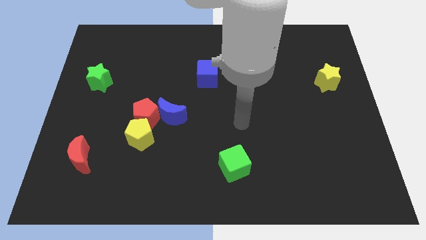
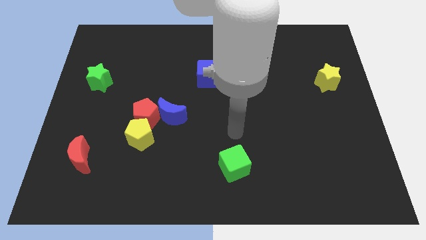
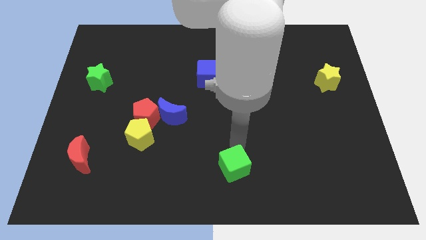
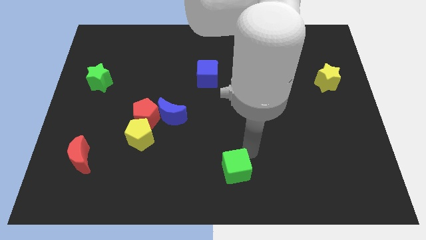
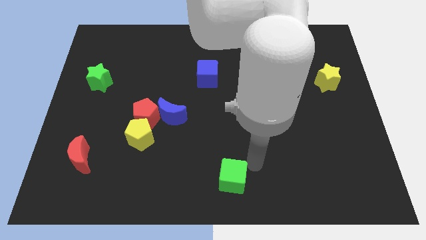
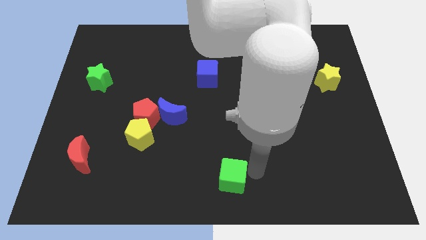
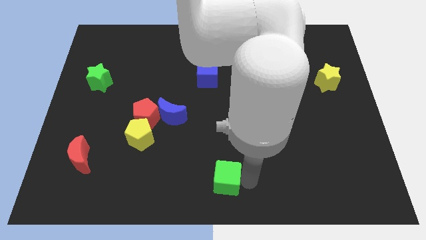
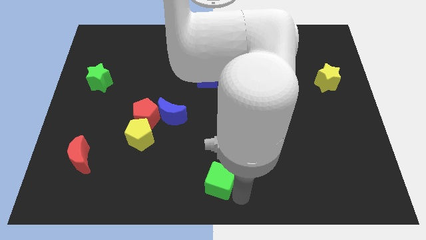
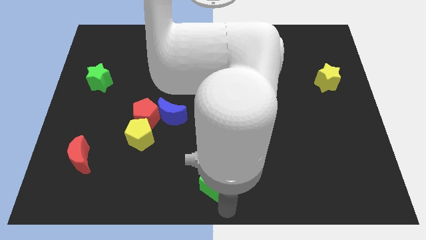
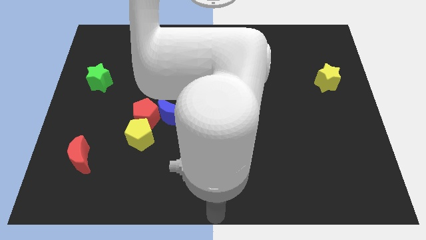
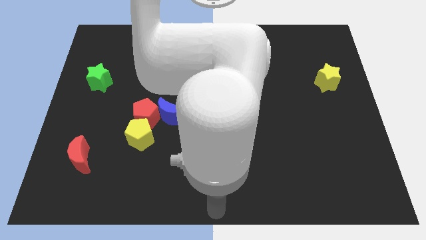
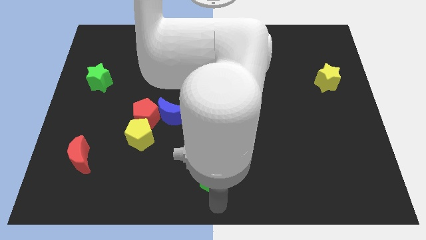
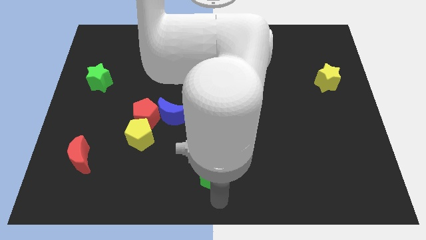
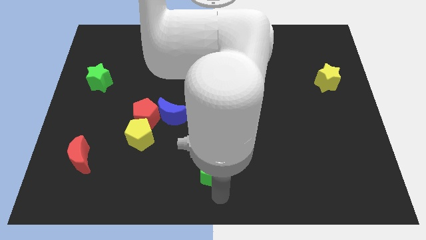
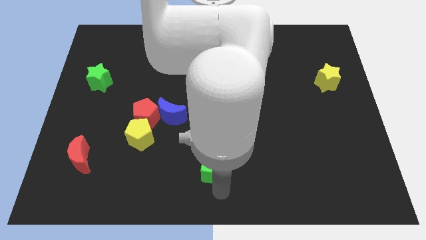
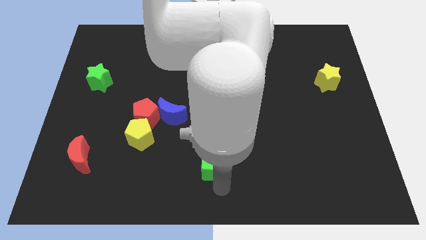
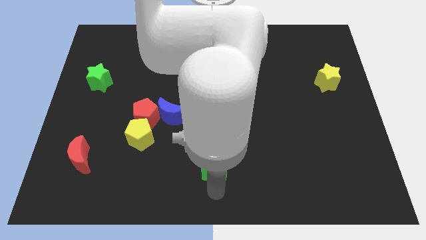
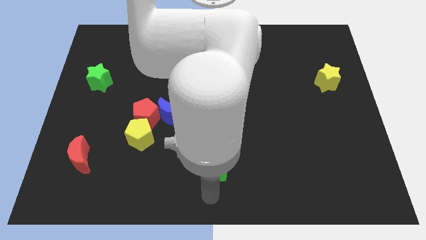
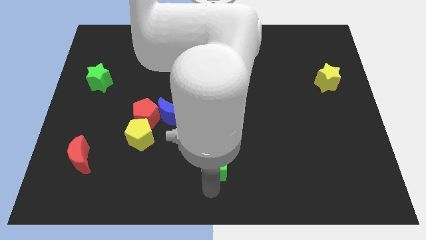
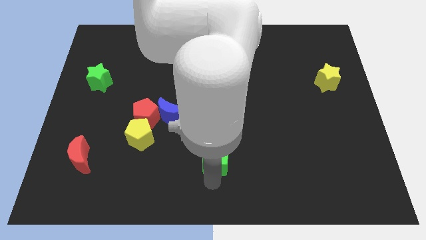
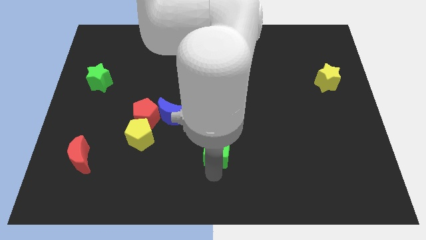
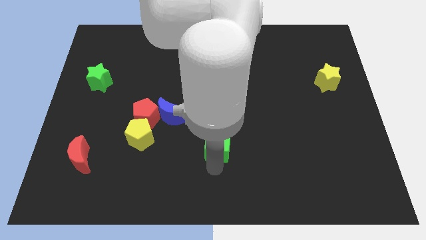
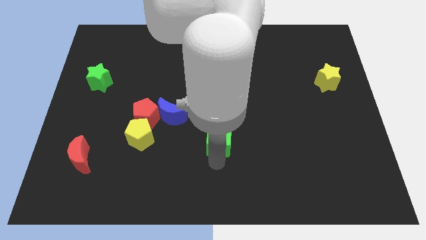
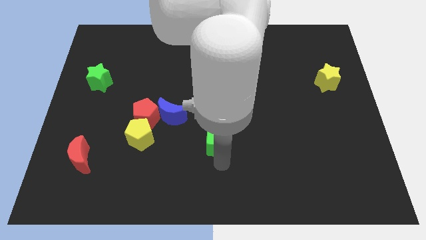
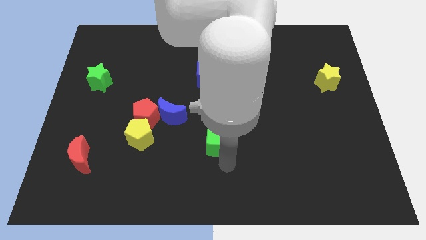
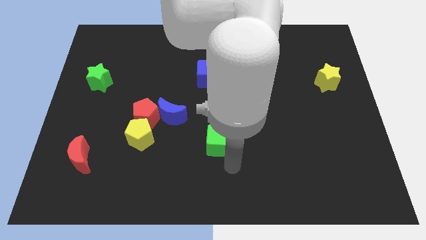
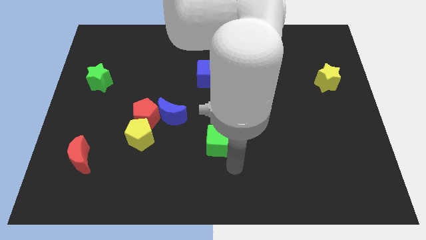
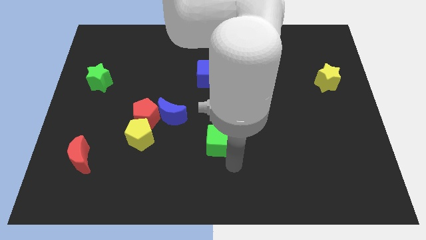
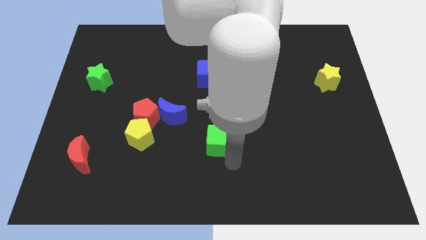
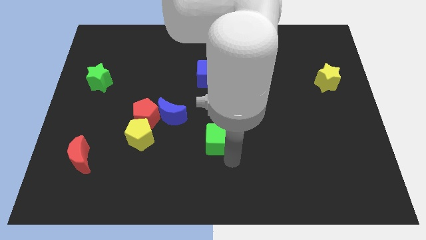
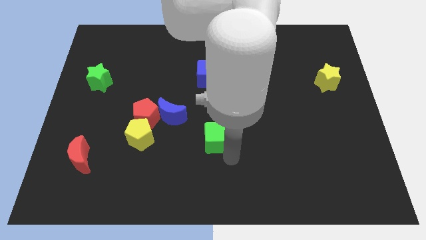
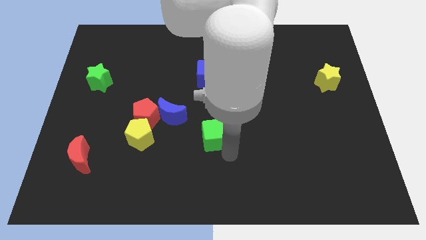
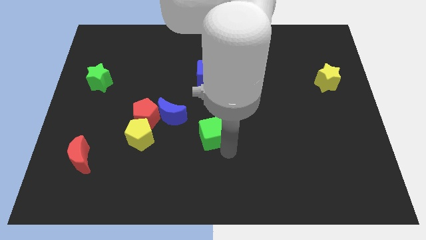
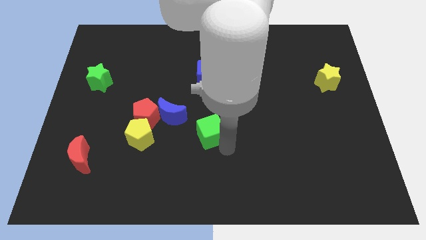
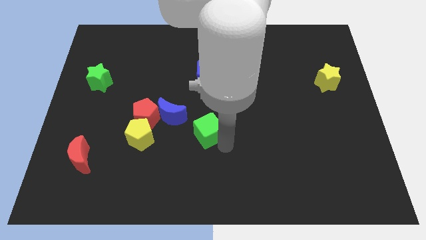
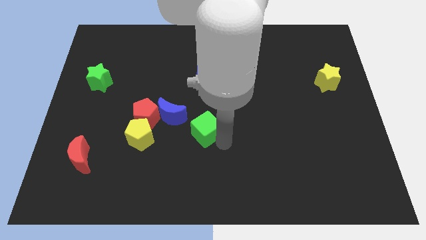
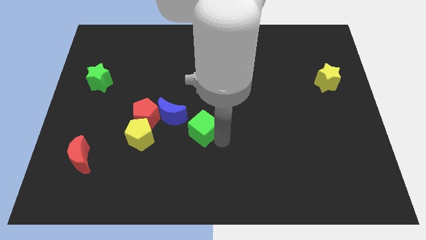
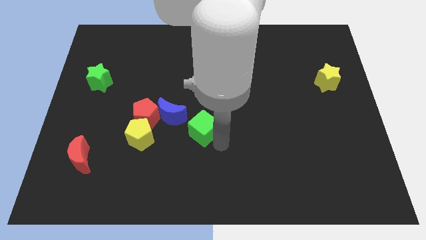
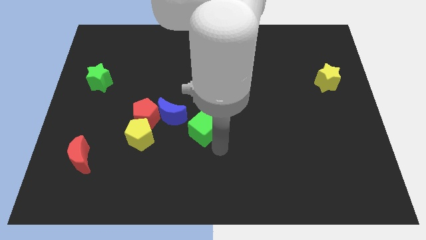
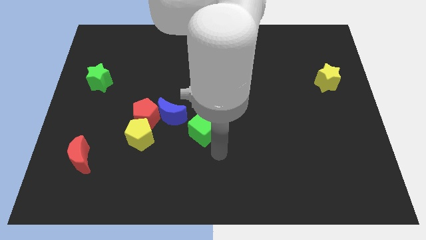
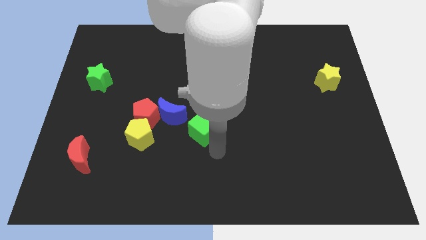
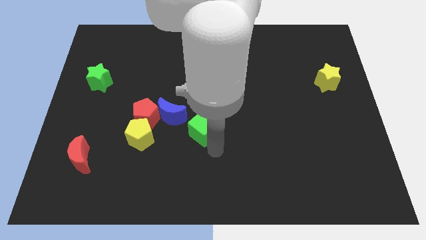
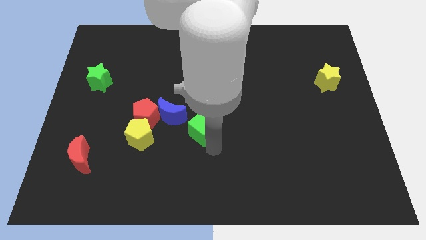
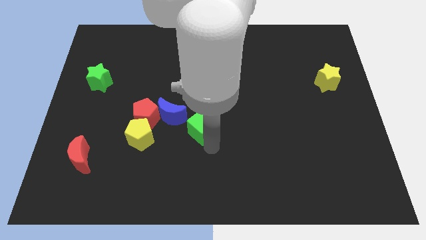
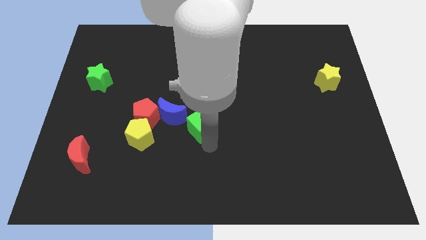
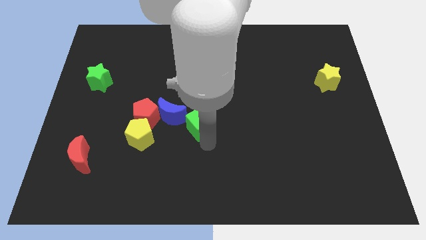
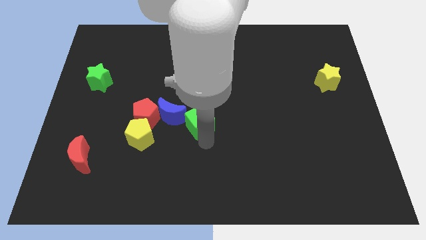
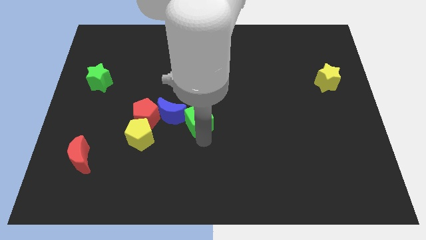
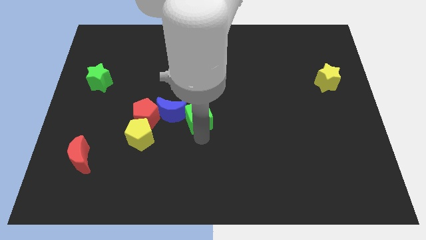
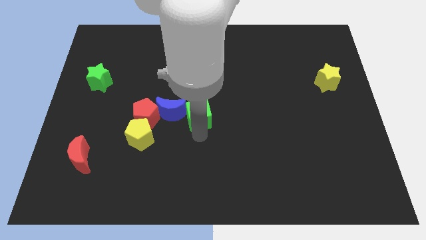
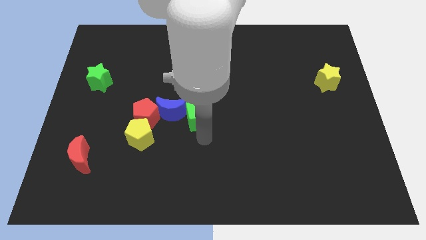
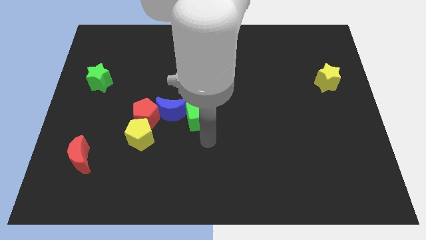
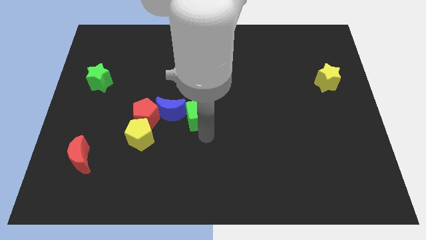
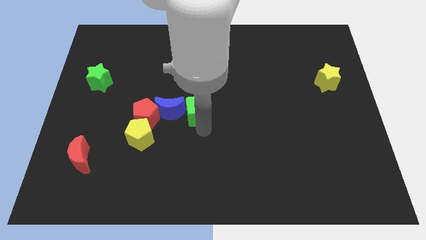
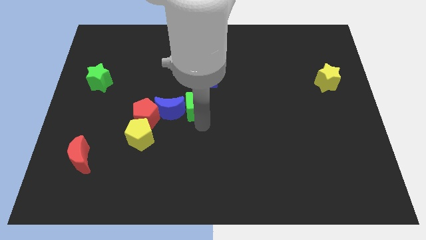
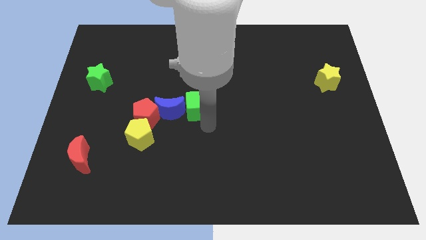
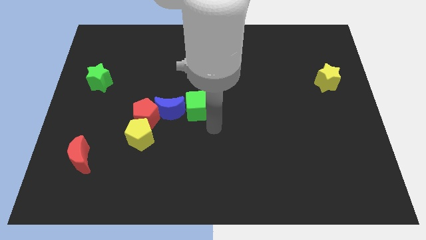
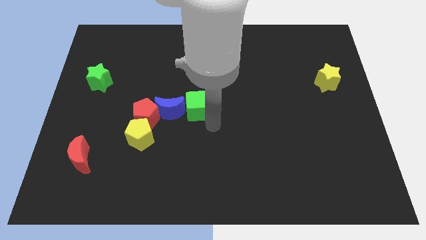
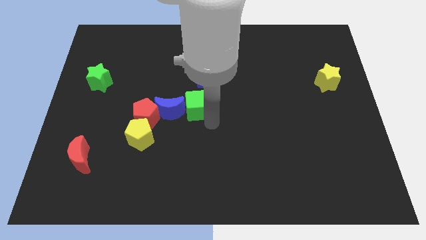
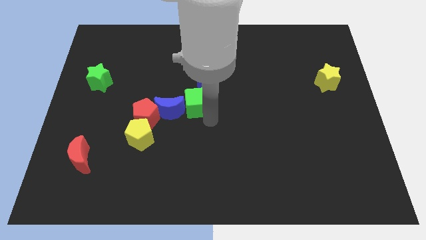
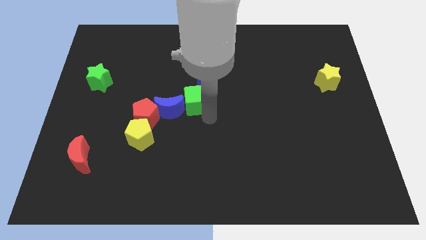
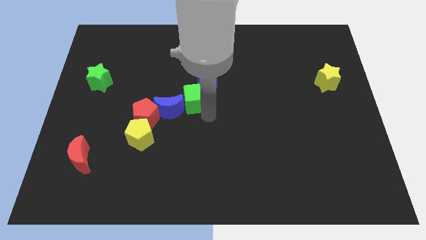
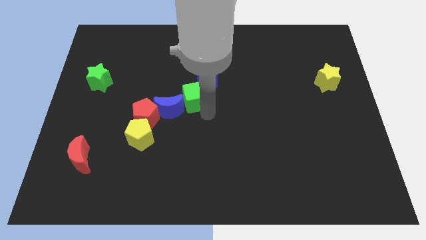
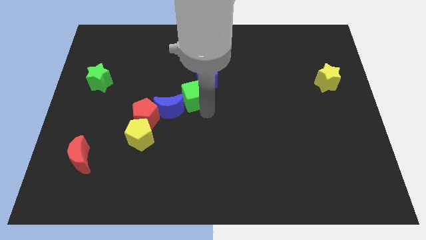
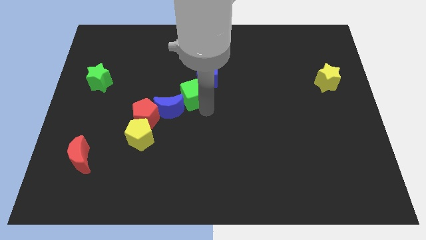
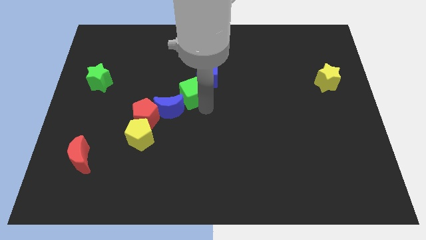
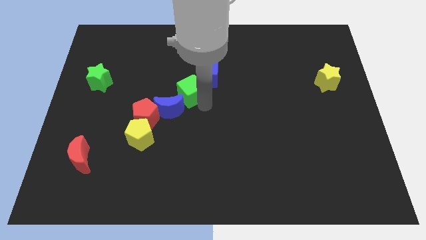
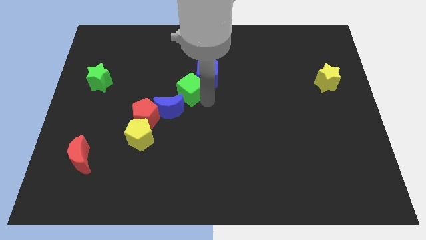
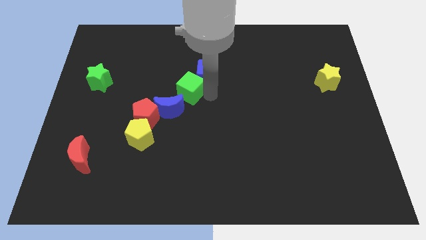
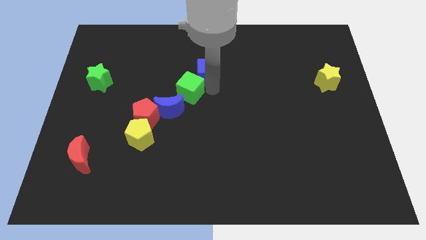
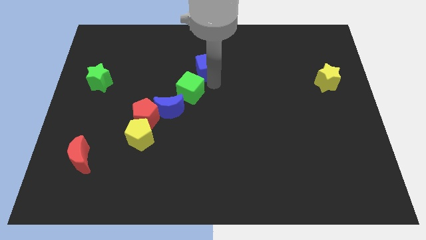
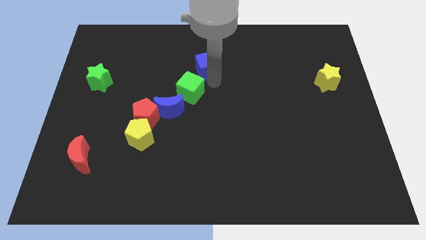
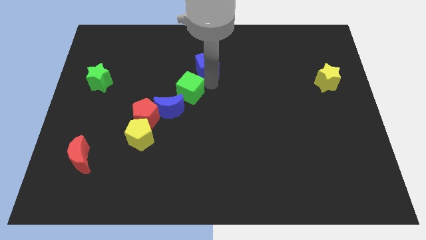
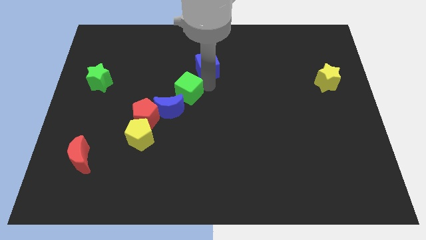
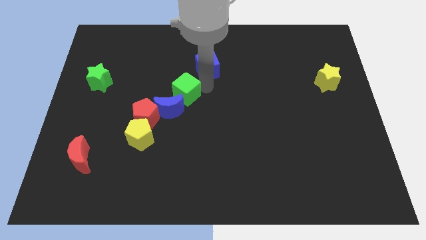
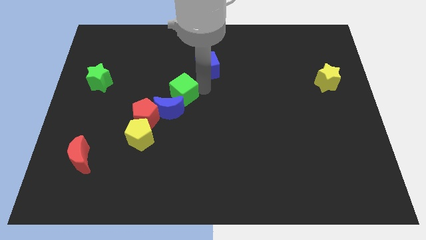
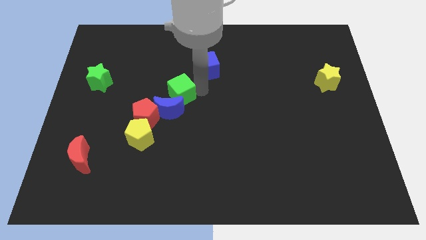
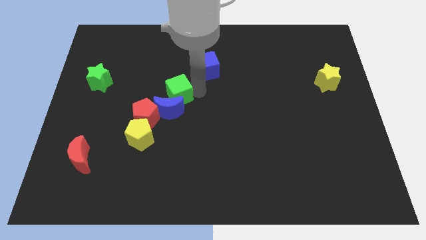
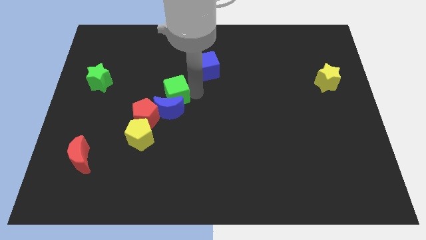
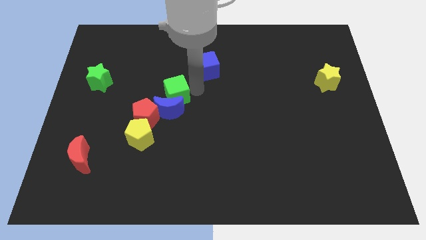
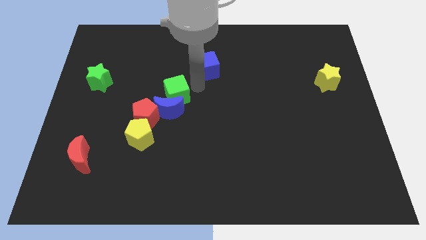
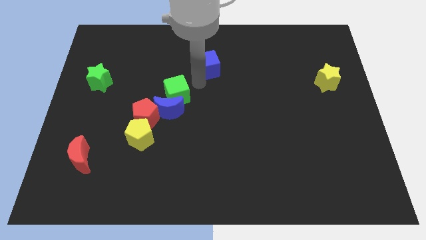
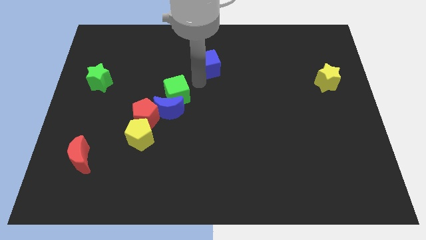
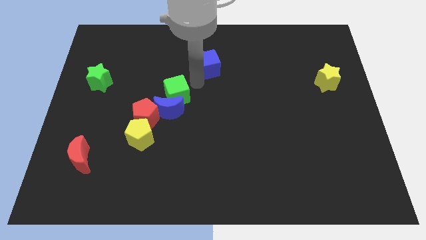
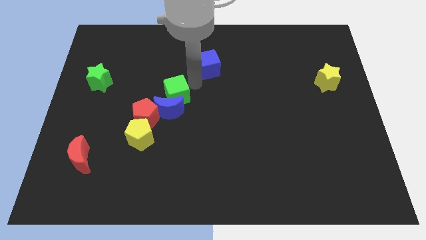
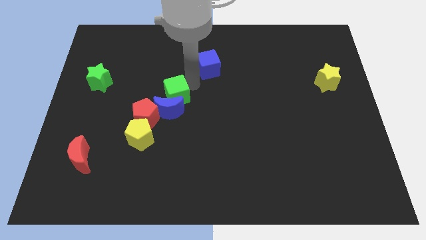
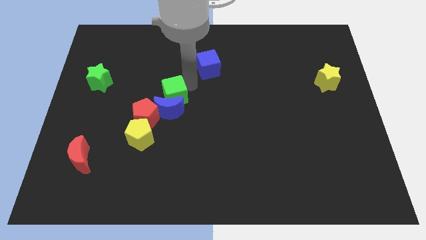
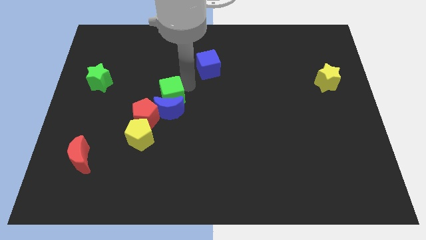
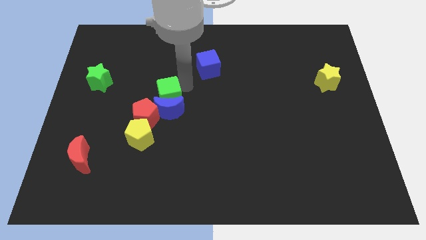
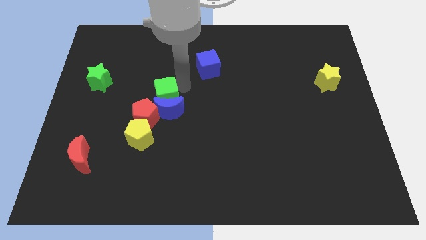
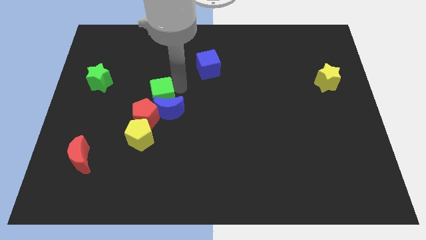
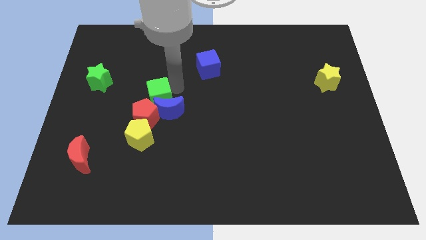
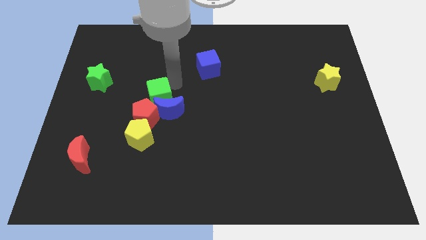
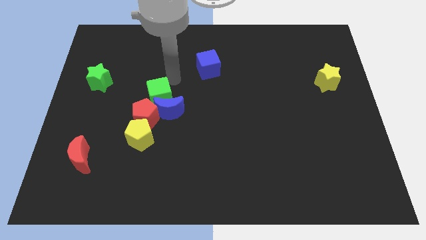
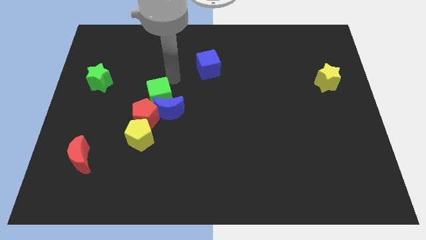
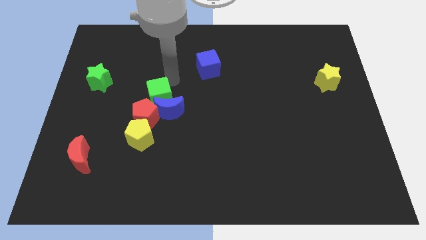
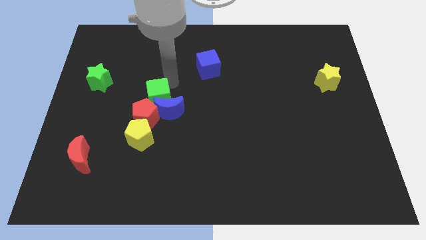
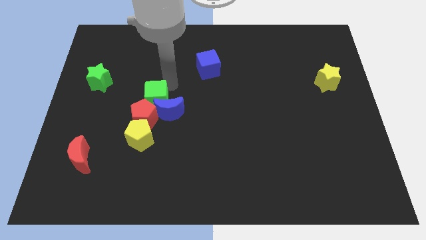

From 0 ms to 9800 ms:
slide the green cube next to the red pentagon
